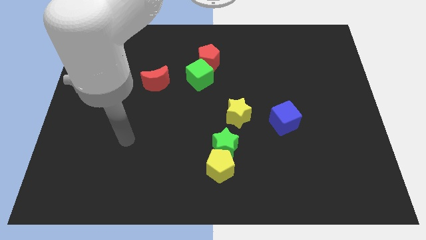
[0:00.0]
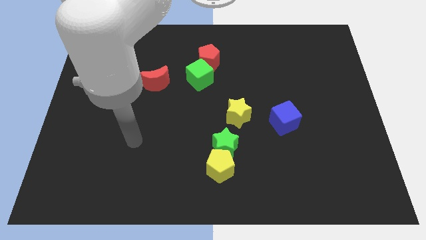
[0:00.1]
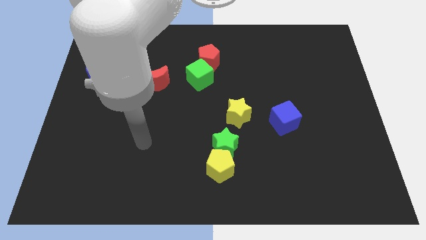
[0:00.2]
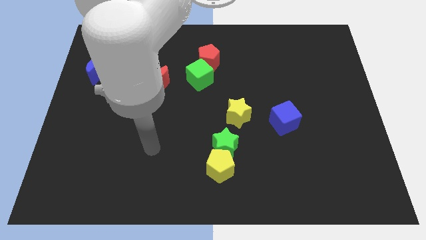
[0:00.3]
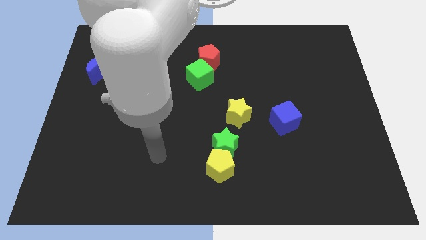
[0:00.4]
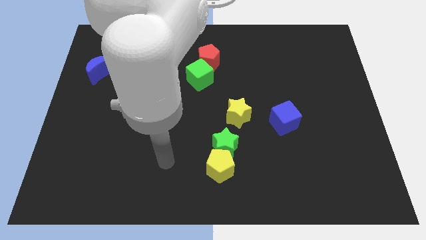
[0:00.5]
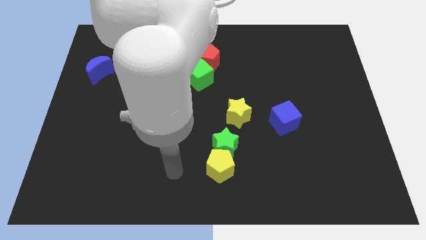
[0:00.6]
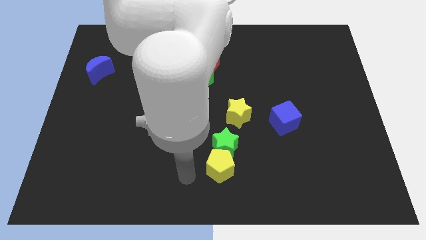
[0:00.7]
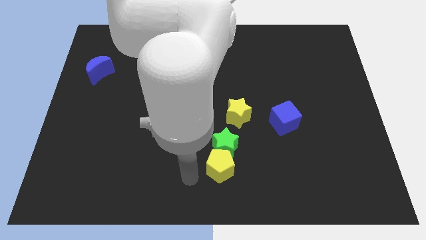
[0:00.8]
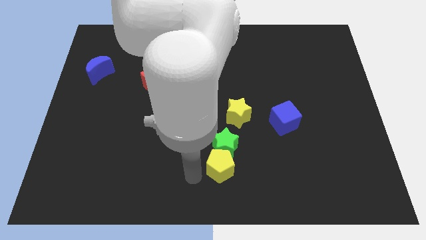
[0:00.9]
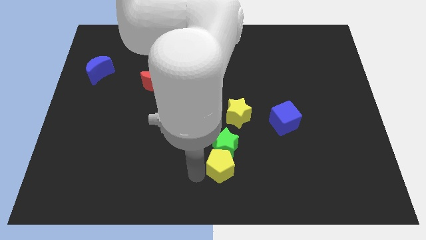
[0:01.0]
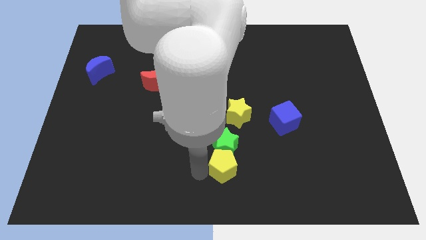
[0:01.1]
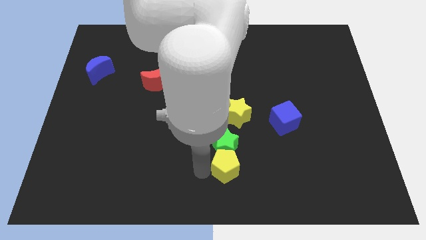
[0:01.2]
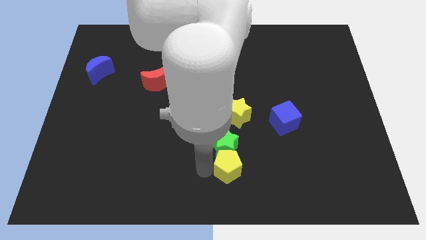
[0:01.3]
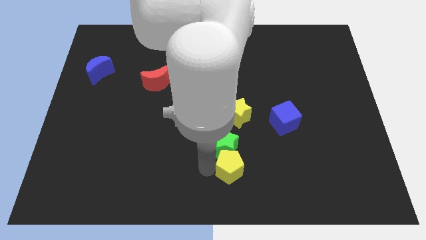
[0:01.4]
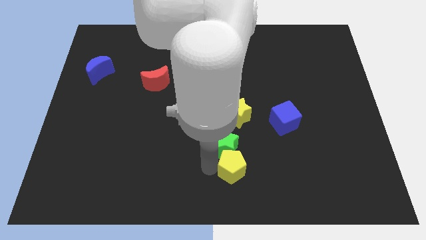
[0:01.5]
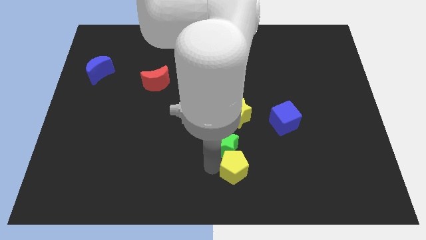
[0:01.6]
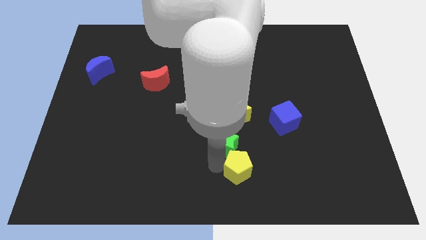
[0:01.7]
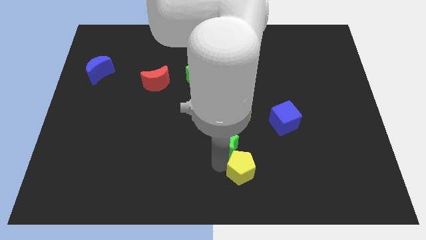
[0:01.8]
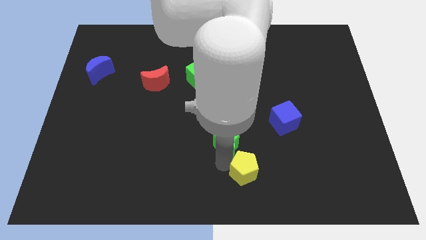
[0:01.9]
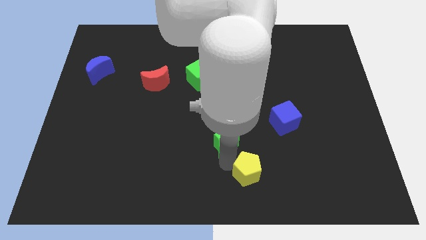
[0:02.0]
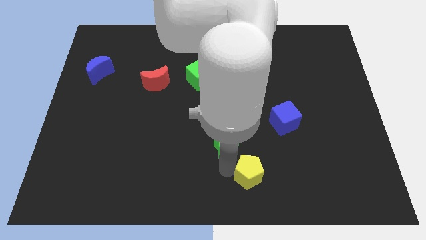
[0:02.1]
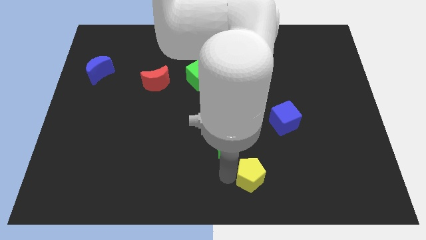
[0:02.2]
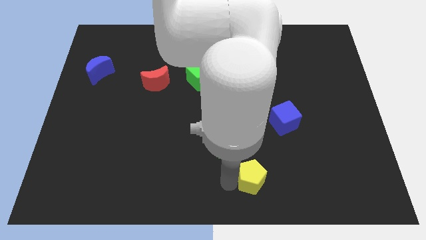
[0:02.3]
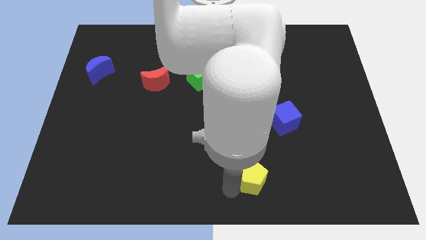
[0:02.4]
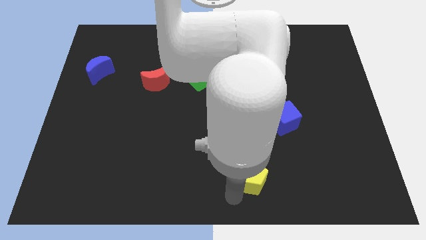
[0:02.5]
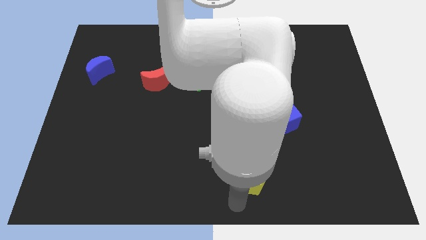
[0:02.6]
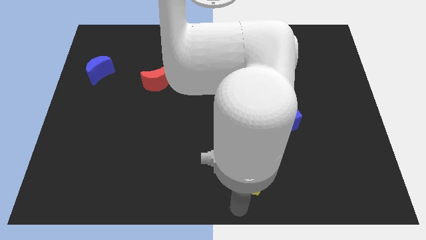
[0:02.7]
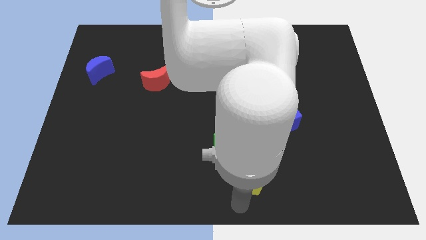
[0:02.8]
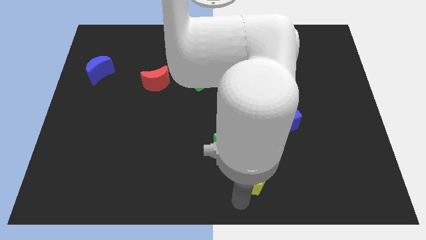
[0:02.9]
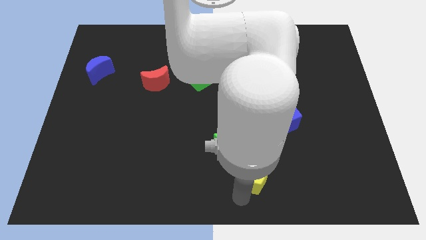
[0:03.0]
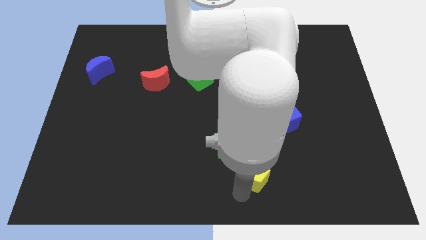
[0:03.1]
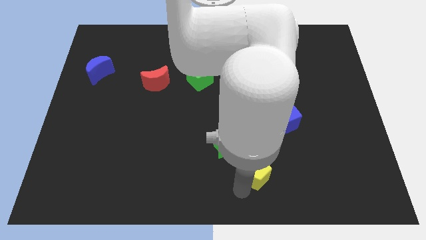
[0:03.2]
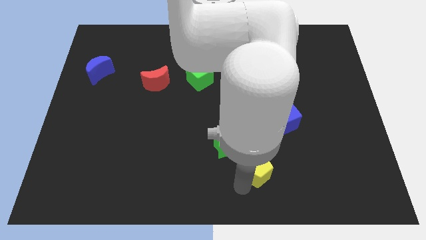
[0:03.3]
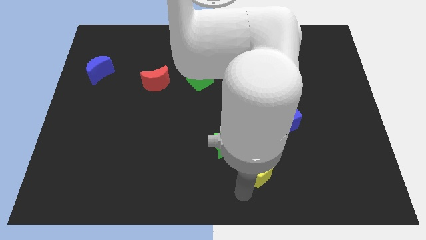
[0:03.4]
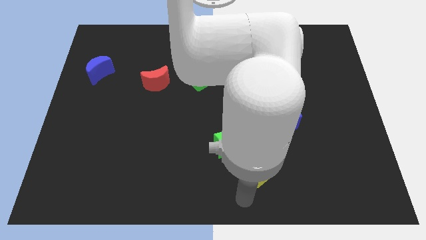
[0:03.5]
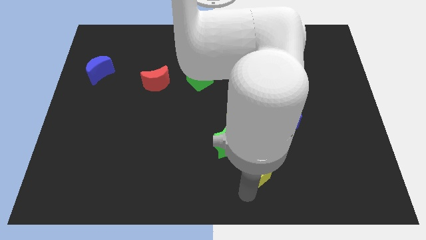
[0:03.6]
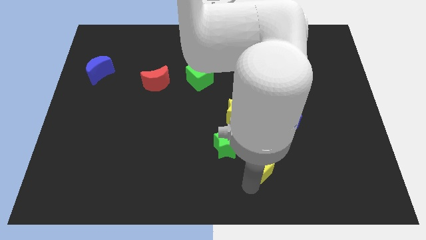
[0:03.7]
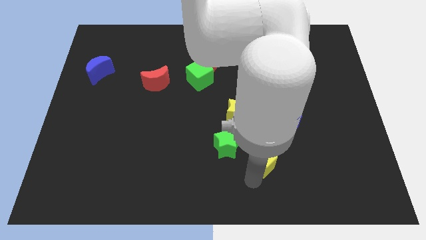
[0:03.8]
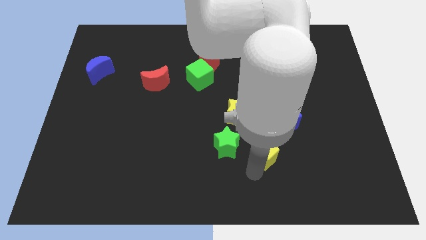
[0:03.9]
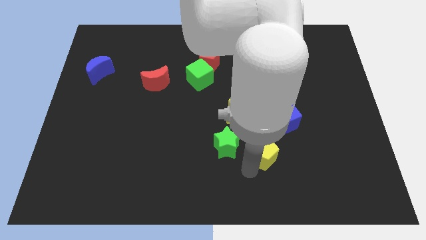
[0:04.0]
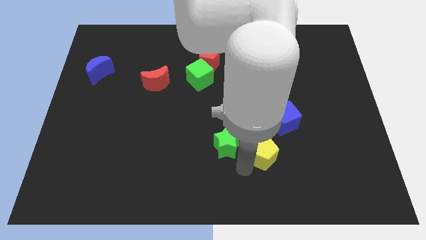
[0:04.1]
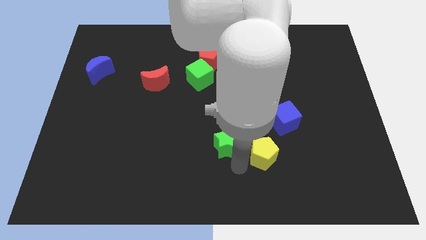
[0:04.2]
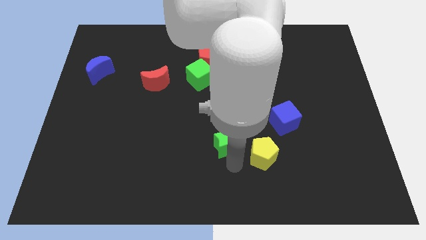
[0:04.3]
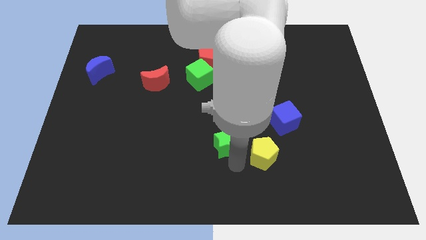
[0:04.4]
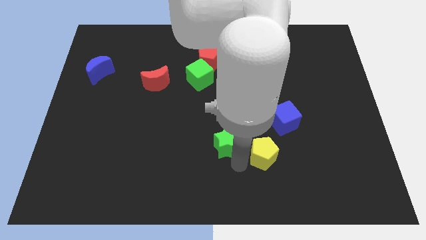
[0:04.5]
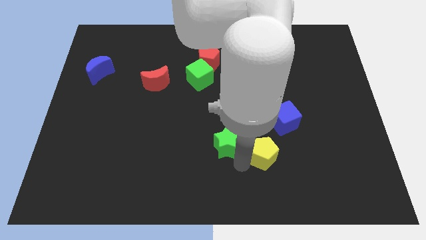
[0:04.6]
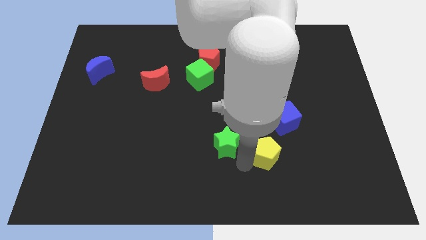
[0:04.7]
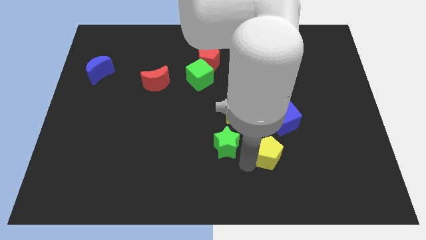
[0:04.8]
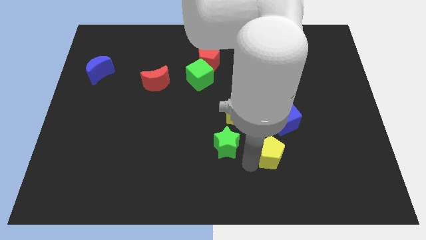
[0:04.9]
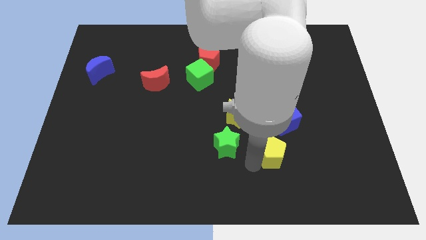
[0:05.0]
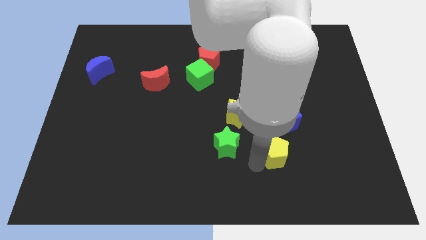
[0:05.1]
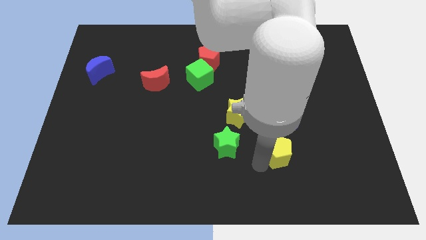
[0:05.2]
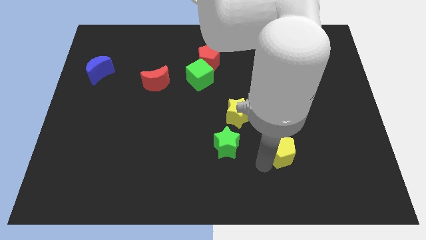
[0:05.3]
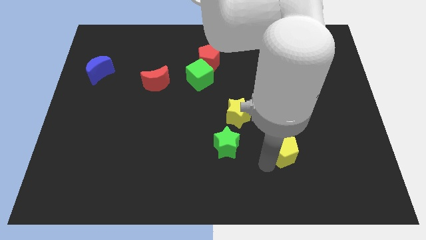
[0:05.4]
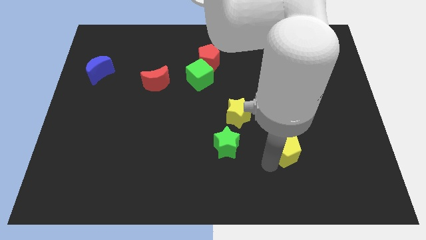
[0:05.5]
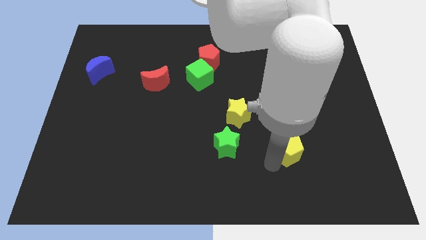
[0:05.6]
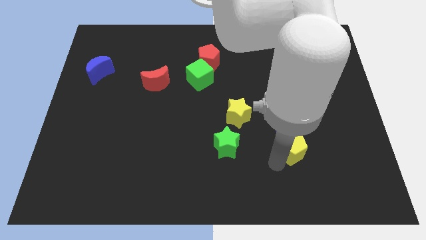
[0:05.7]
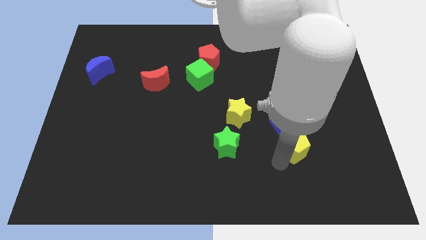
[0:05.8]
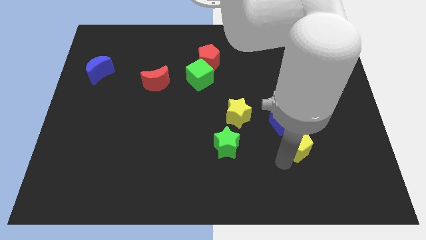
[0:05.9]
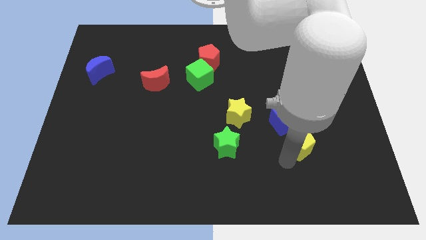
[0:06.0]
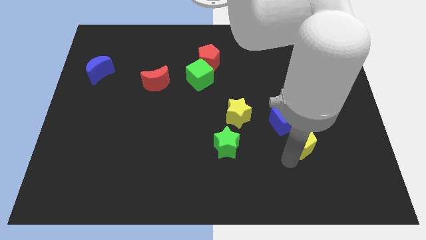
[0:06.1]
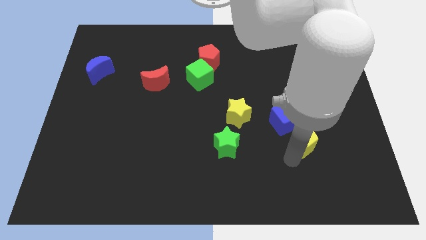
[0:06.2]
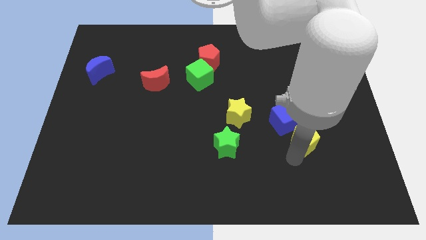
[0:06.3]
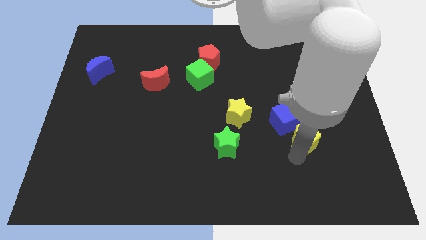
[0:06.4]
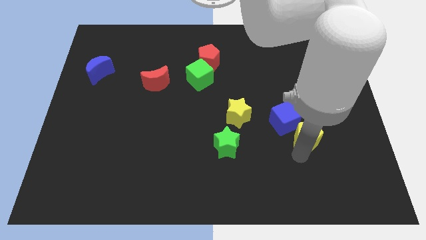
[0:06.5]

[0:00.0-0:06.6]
move the yellow pentagon to the right of the blue cube
